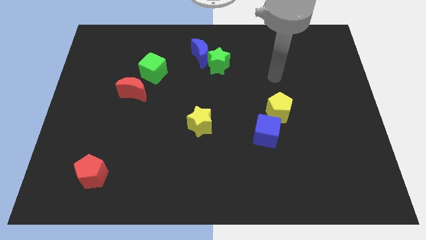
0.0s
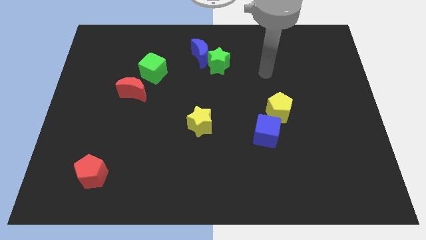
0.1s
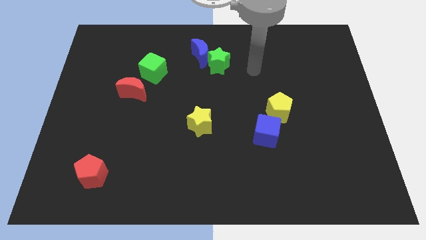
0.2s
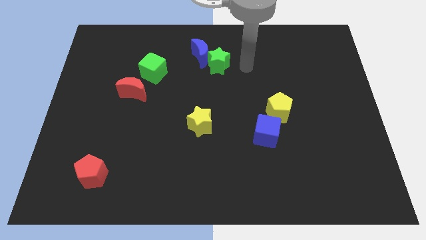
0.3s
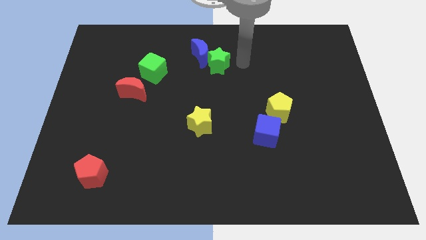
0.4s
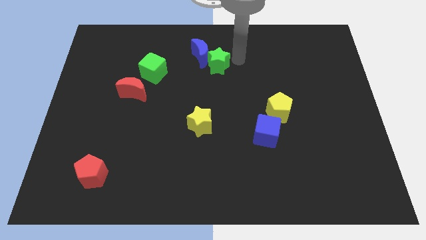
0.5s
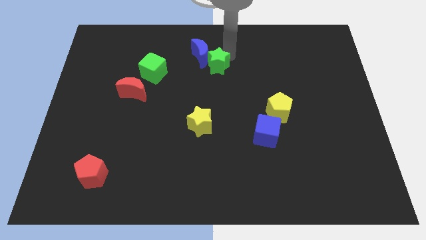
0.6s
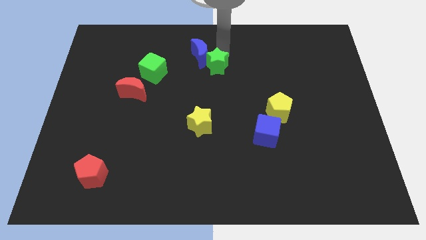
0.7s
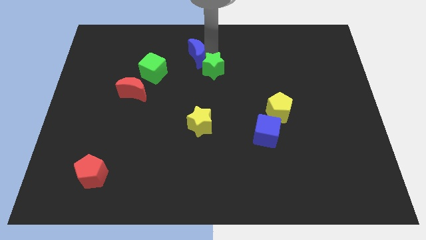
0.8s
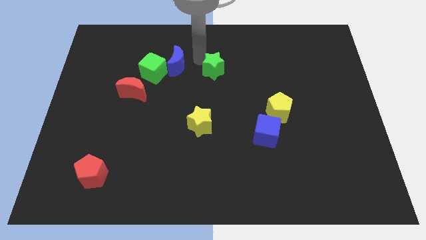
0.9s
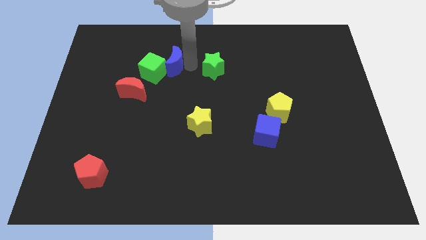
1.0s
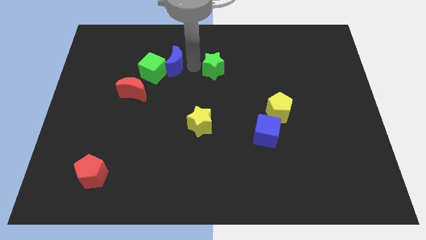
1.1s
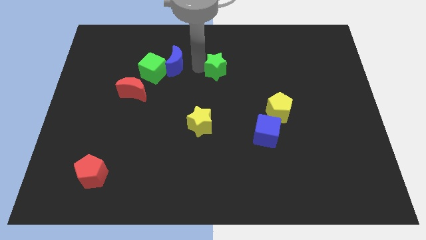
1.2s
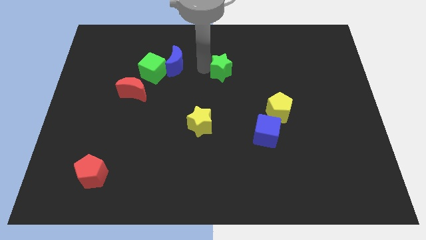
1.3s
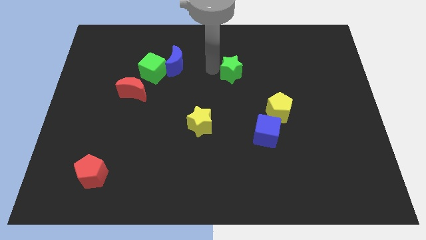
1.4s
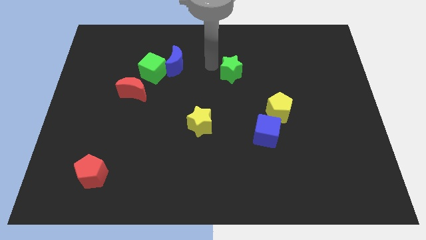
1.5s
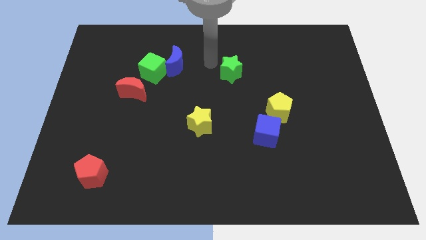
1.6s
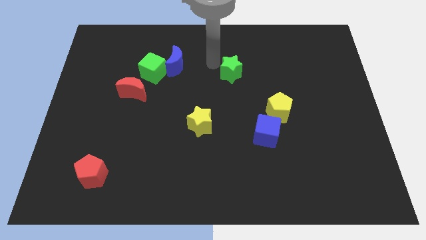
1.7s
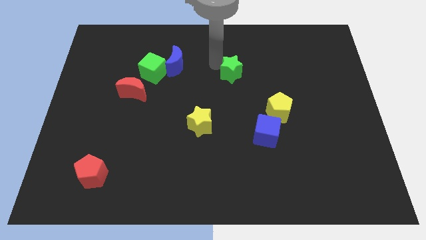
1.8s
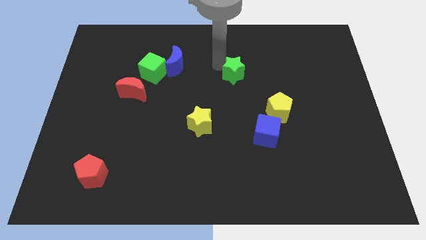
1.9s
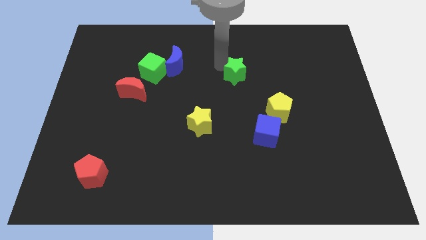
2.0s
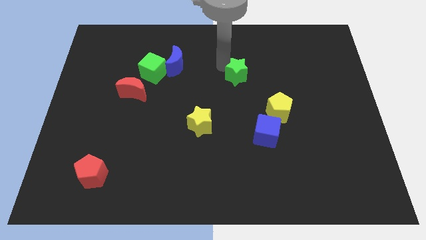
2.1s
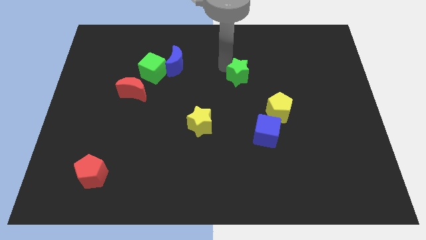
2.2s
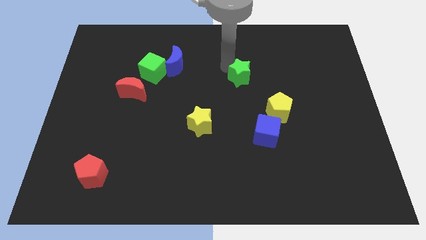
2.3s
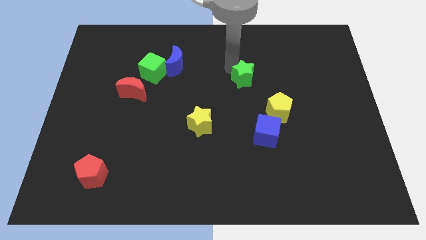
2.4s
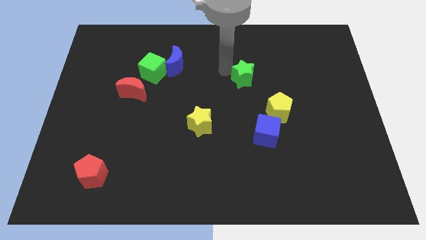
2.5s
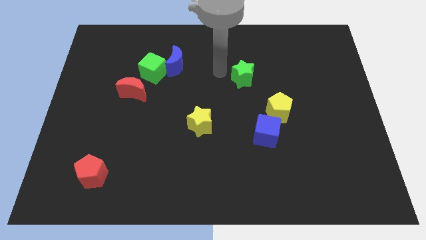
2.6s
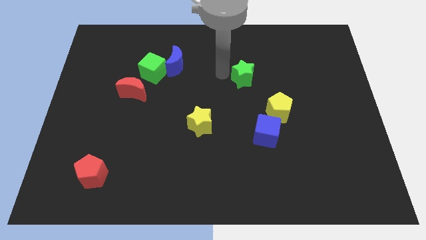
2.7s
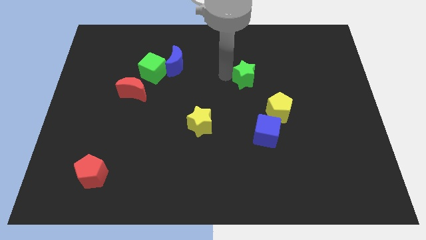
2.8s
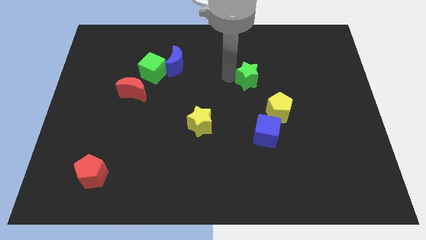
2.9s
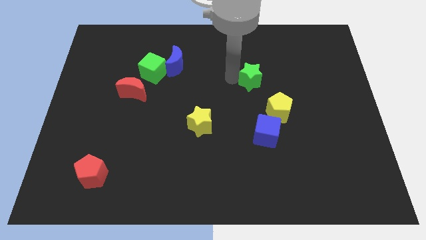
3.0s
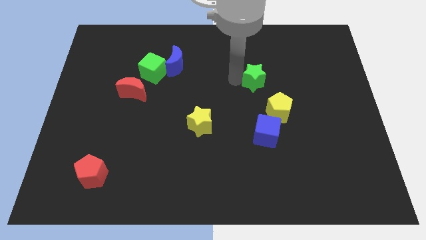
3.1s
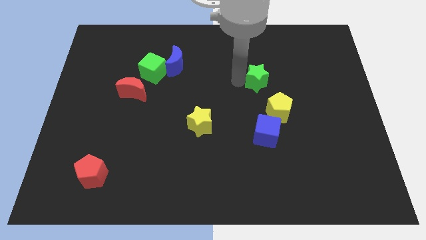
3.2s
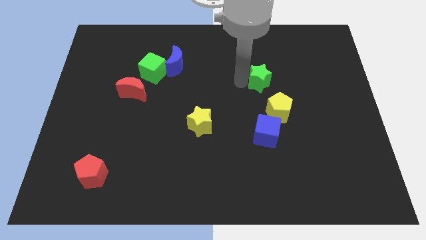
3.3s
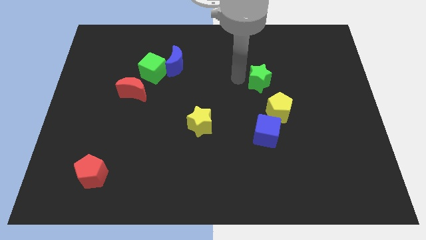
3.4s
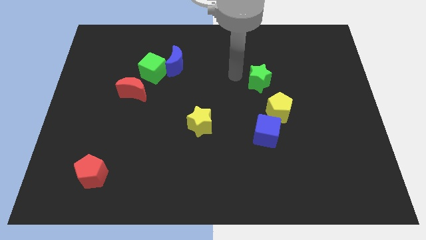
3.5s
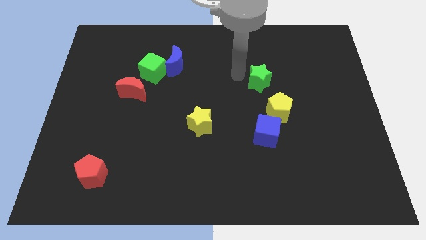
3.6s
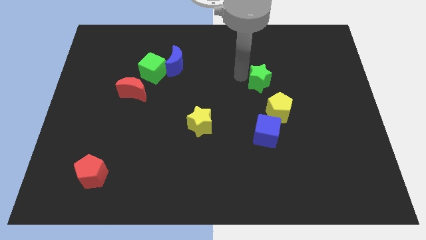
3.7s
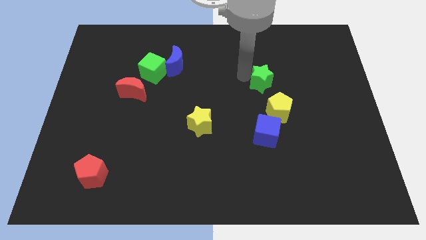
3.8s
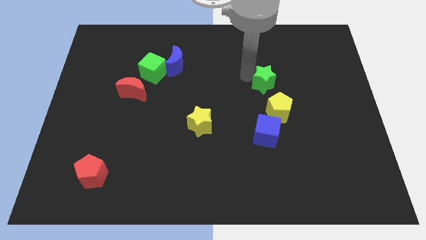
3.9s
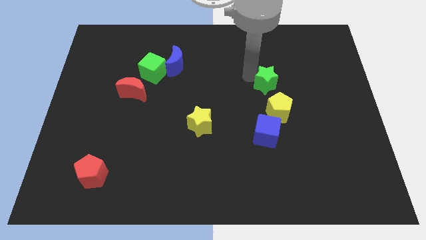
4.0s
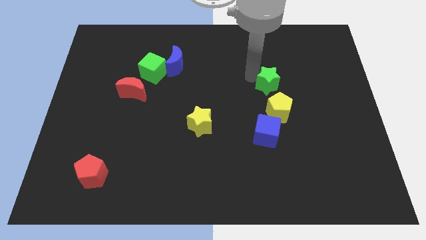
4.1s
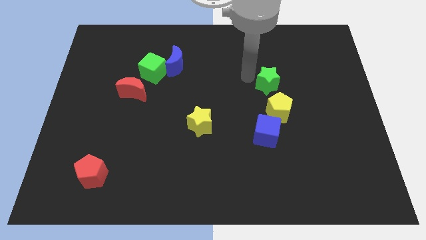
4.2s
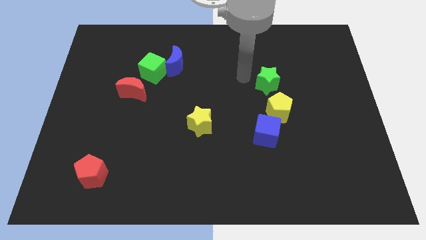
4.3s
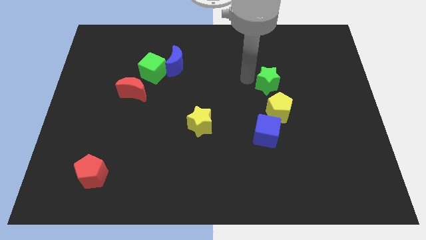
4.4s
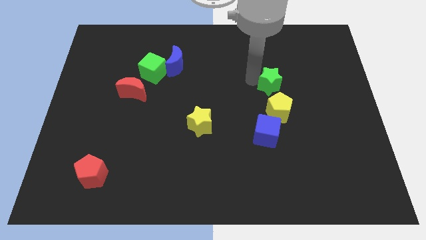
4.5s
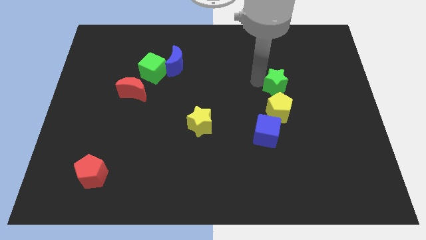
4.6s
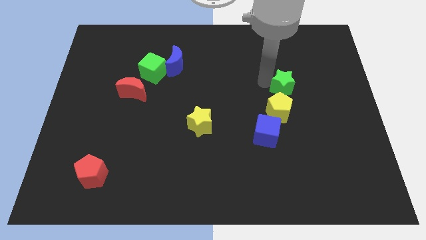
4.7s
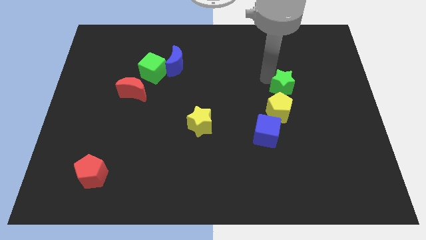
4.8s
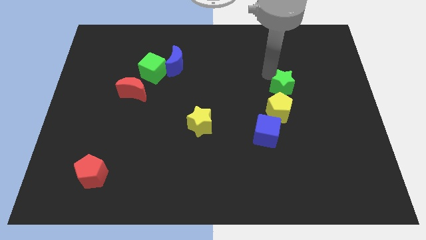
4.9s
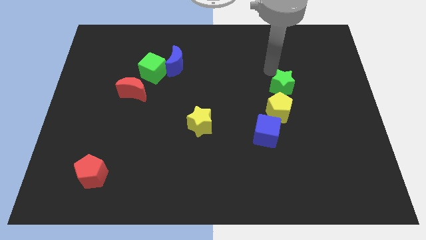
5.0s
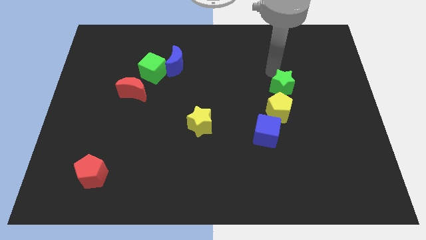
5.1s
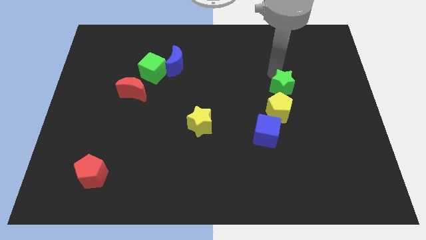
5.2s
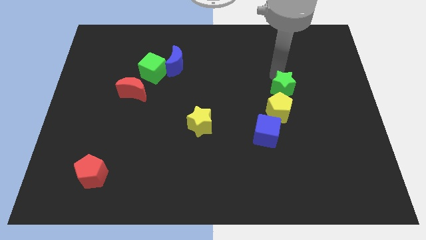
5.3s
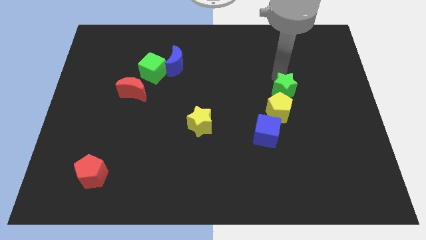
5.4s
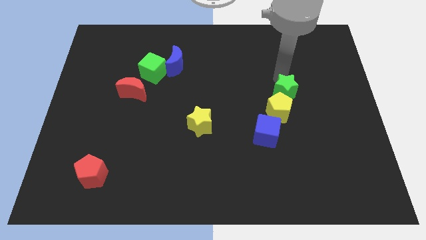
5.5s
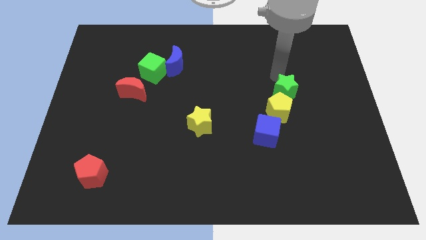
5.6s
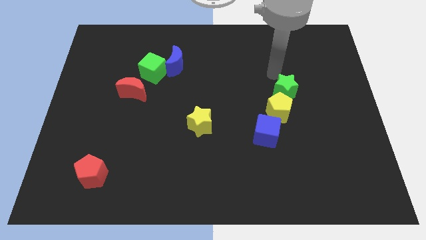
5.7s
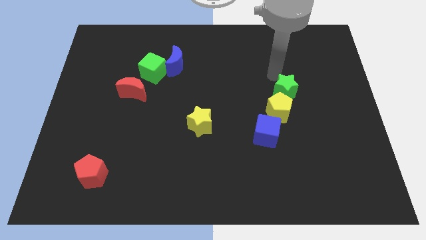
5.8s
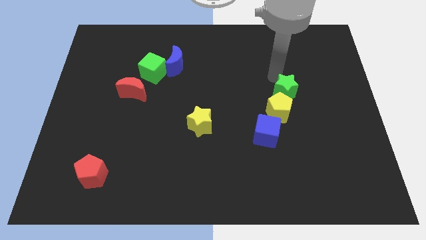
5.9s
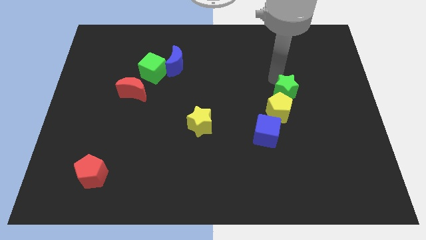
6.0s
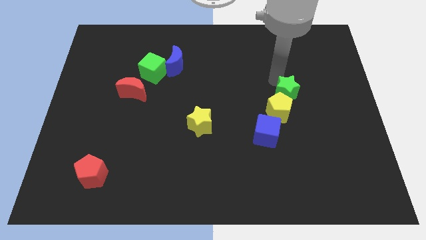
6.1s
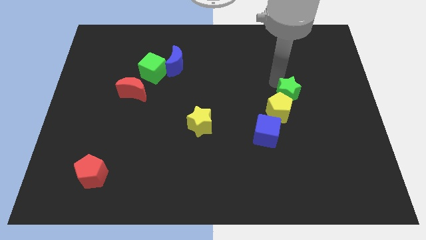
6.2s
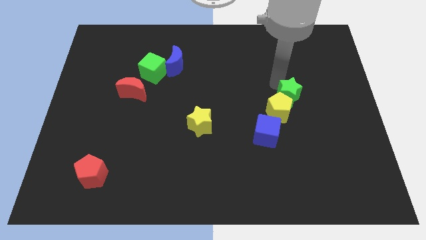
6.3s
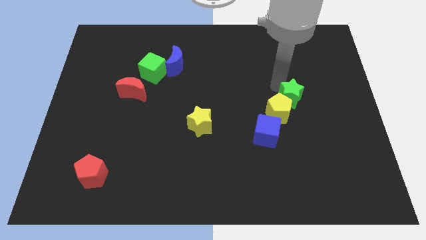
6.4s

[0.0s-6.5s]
slide the green star to the top right side of the blue cube
